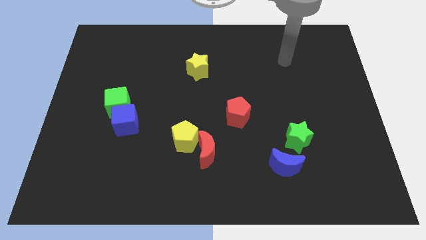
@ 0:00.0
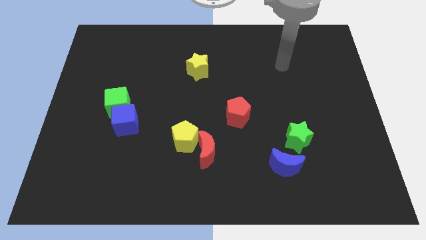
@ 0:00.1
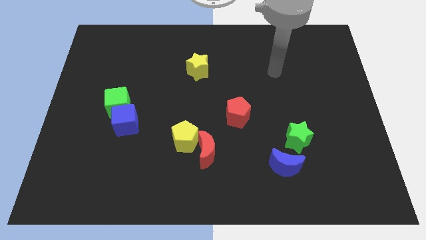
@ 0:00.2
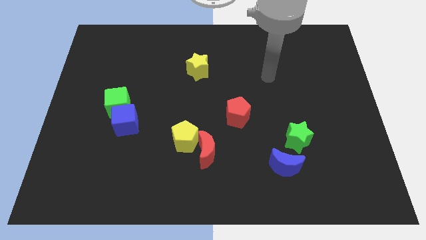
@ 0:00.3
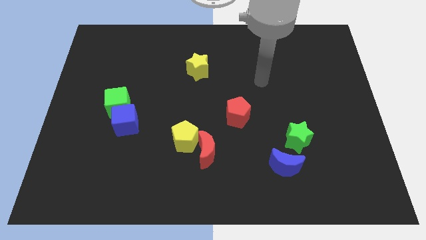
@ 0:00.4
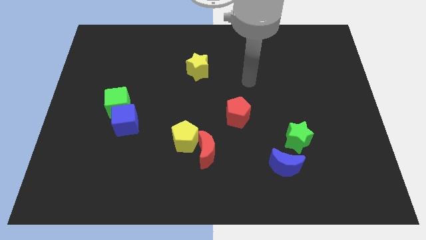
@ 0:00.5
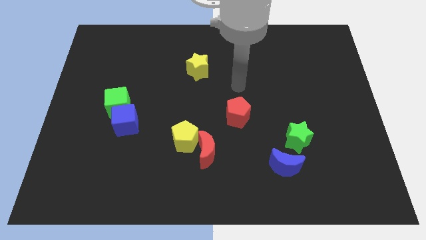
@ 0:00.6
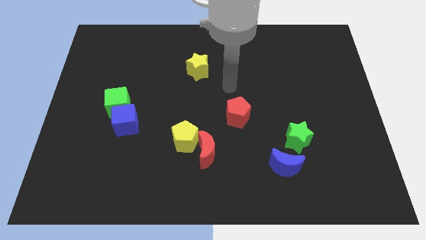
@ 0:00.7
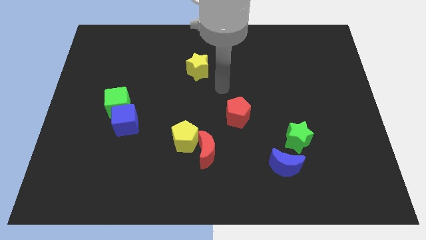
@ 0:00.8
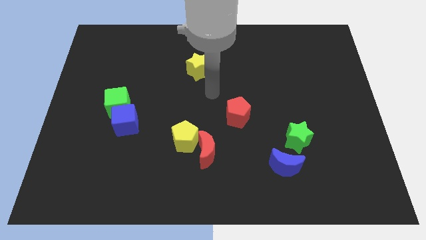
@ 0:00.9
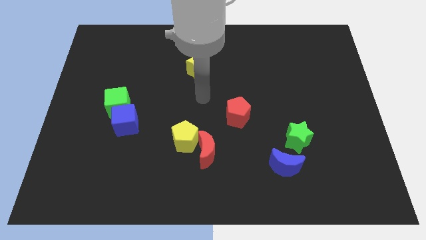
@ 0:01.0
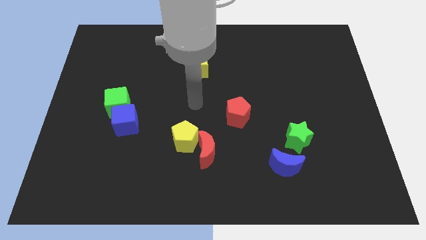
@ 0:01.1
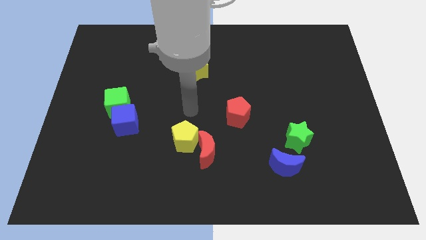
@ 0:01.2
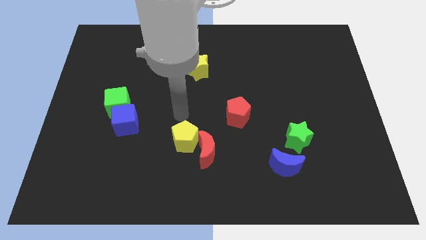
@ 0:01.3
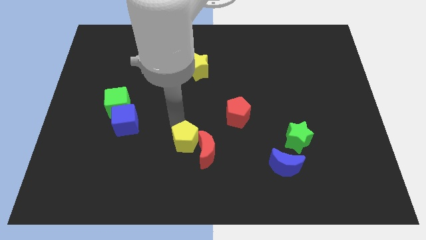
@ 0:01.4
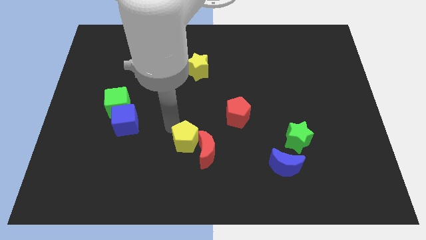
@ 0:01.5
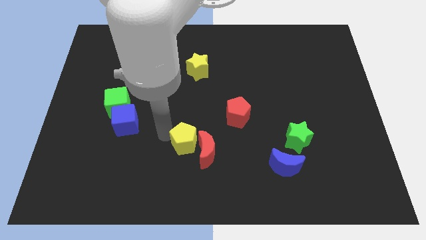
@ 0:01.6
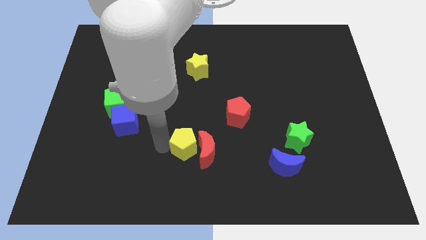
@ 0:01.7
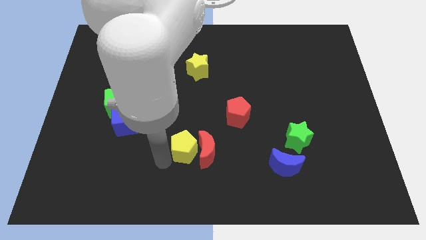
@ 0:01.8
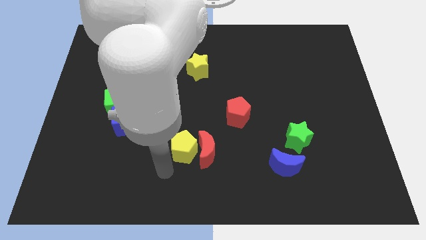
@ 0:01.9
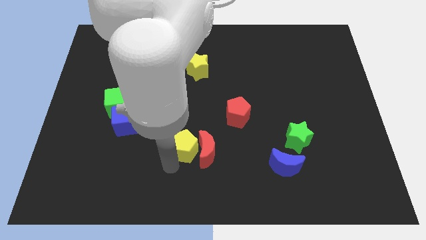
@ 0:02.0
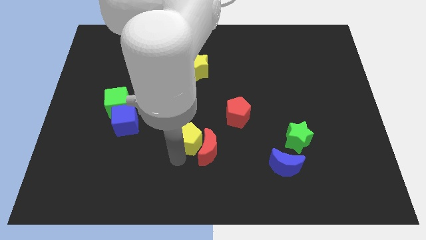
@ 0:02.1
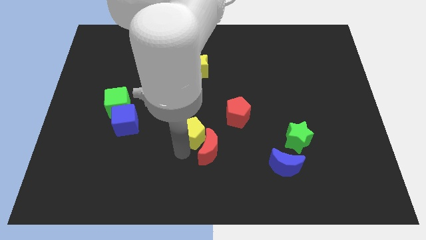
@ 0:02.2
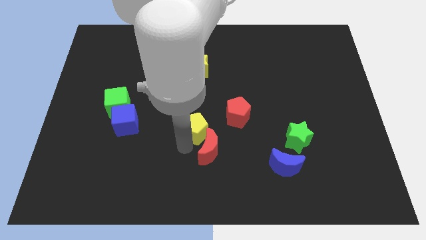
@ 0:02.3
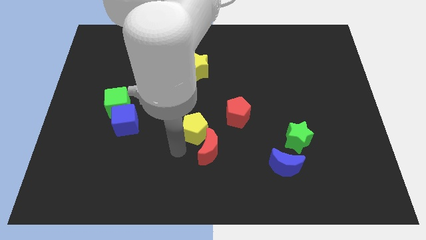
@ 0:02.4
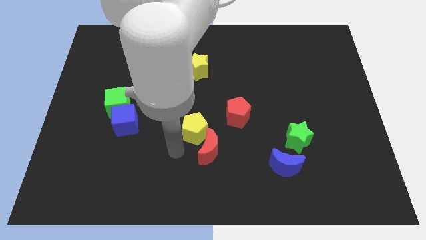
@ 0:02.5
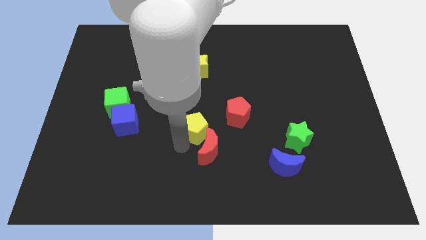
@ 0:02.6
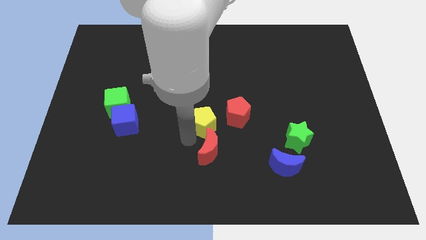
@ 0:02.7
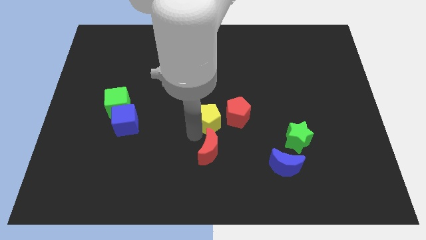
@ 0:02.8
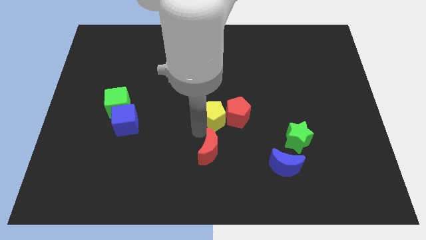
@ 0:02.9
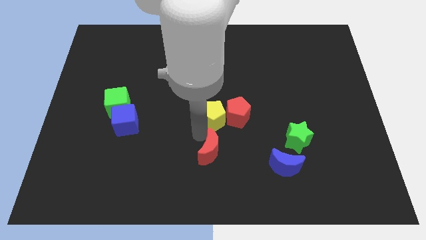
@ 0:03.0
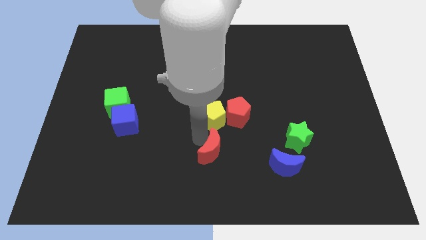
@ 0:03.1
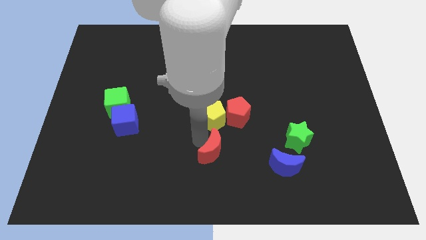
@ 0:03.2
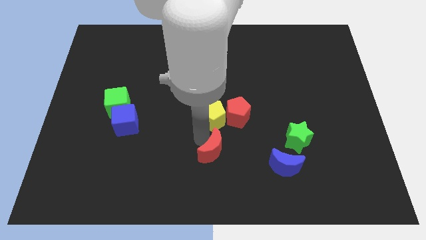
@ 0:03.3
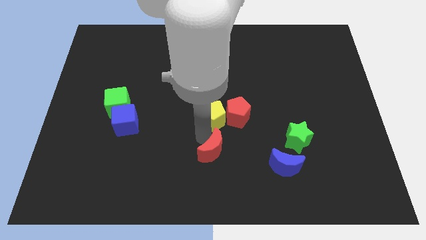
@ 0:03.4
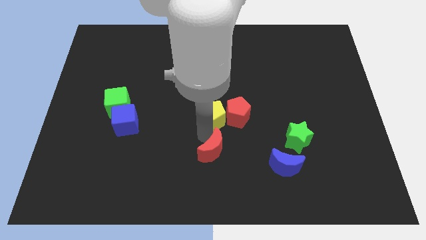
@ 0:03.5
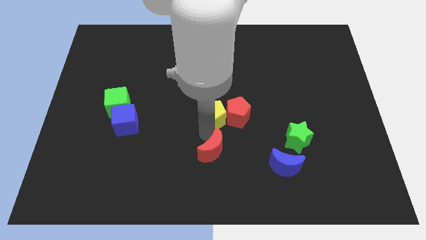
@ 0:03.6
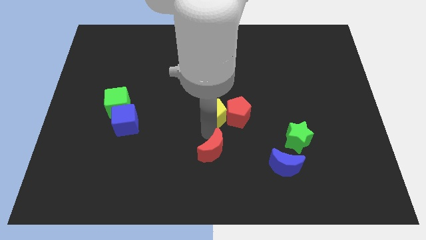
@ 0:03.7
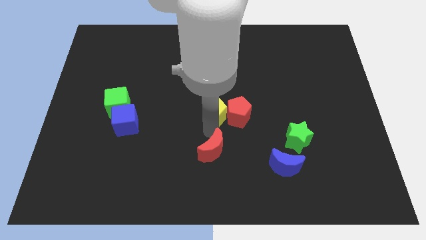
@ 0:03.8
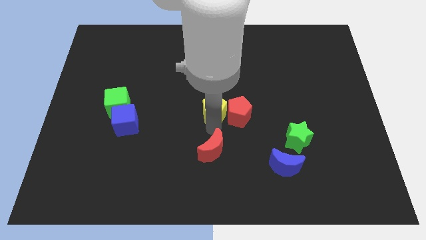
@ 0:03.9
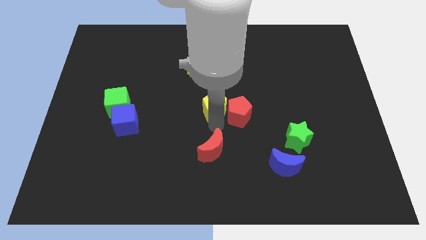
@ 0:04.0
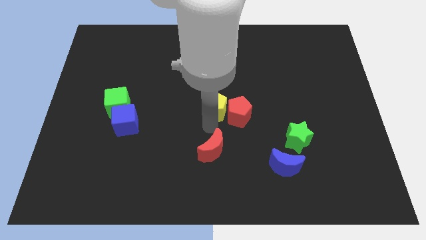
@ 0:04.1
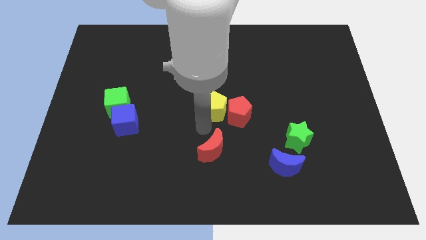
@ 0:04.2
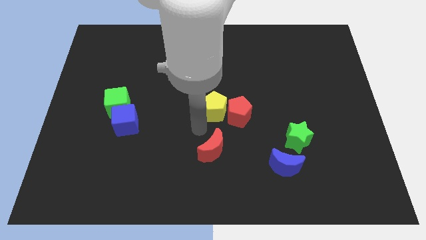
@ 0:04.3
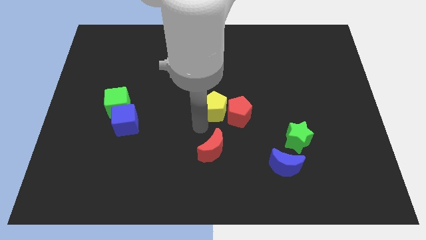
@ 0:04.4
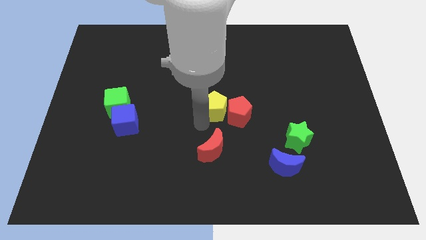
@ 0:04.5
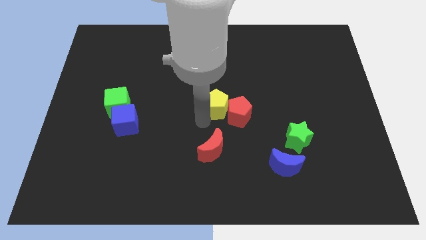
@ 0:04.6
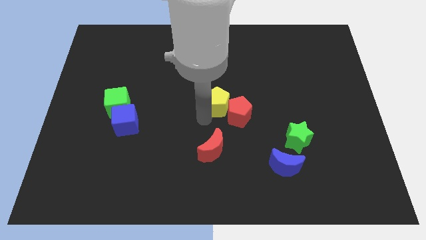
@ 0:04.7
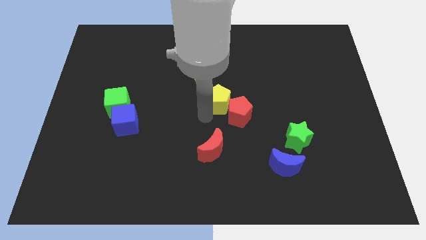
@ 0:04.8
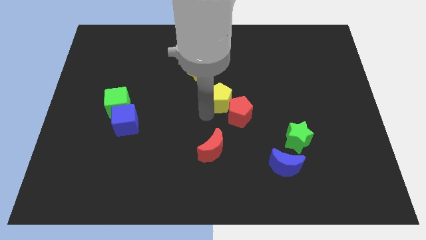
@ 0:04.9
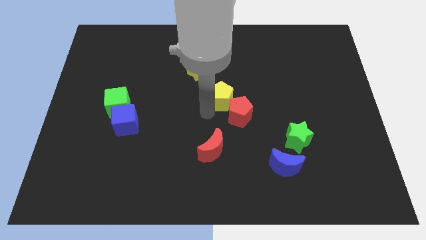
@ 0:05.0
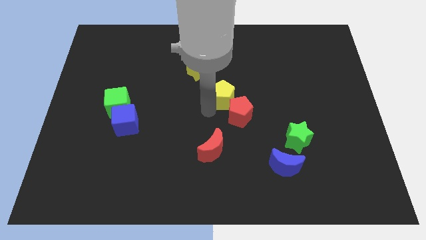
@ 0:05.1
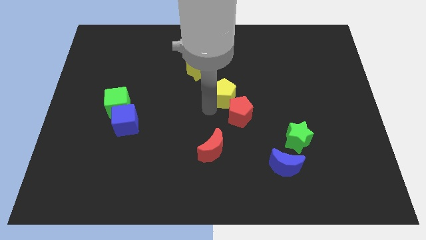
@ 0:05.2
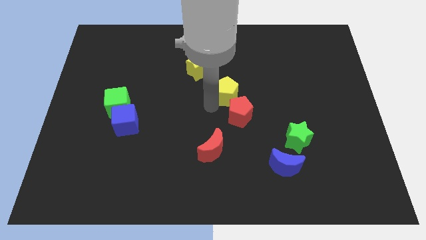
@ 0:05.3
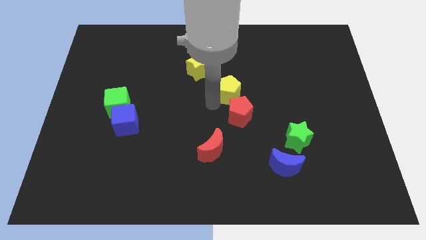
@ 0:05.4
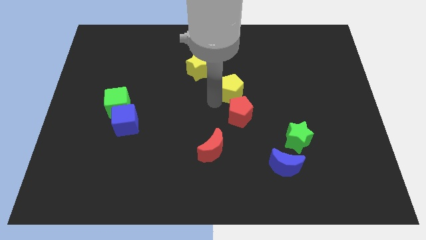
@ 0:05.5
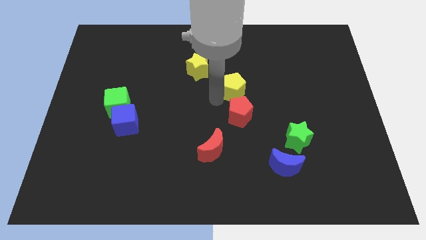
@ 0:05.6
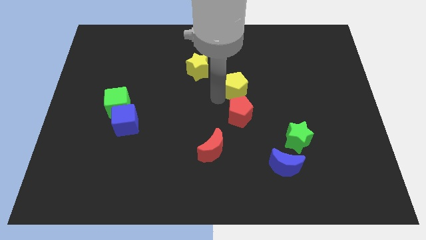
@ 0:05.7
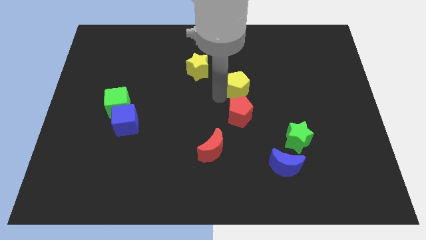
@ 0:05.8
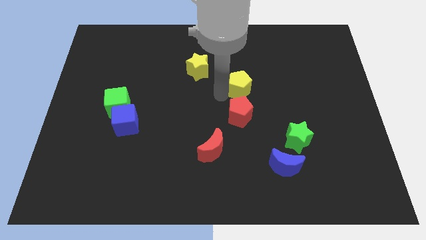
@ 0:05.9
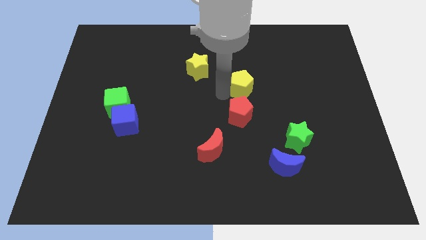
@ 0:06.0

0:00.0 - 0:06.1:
move the yellow pentagon upwards and then to the right

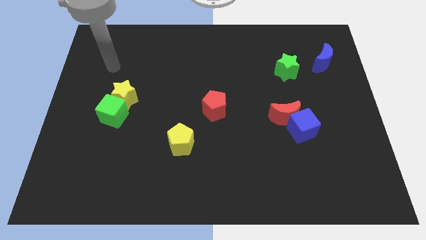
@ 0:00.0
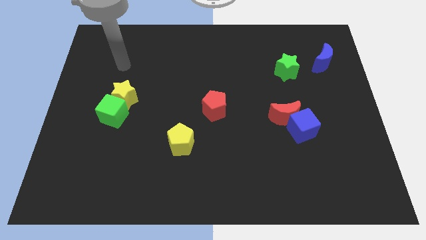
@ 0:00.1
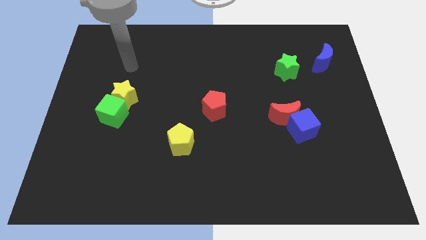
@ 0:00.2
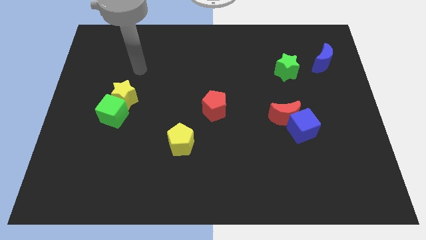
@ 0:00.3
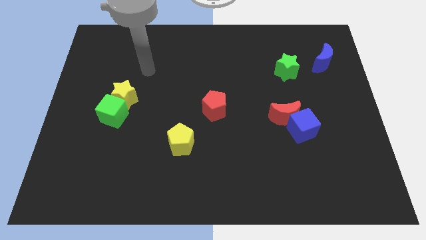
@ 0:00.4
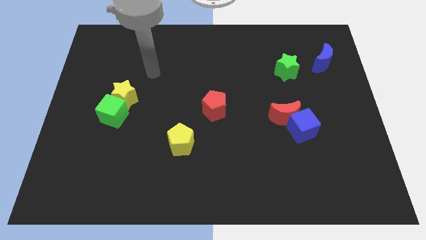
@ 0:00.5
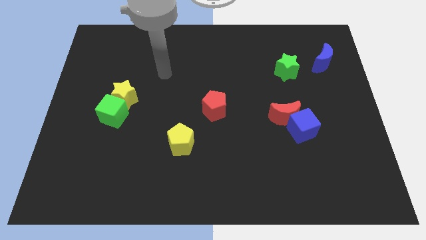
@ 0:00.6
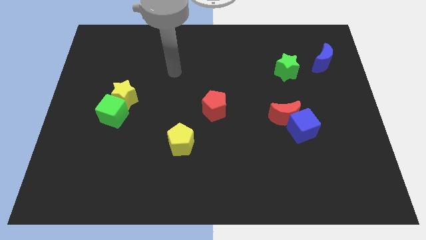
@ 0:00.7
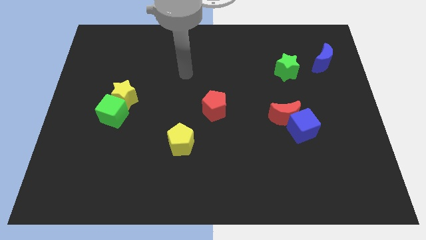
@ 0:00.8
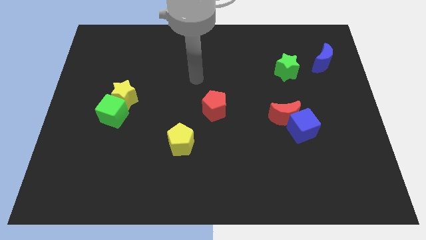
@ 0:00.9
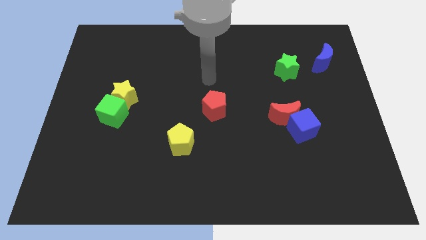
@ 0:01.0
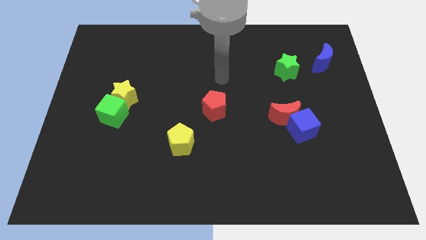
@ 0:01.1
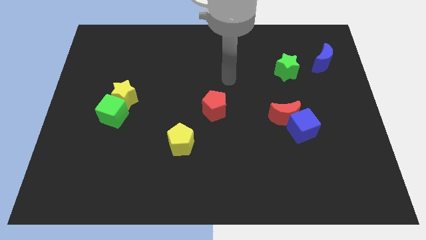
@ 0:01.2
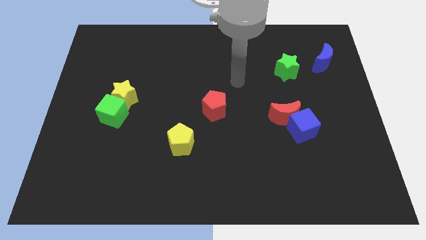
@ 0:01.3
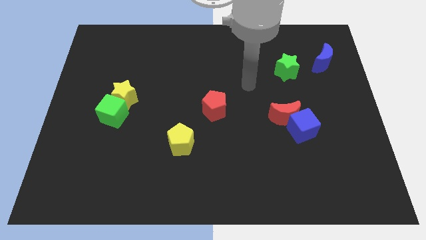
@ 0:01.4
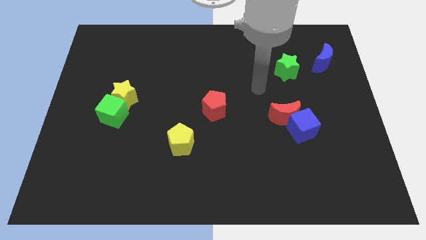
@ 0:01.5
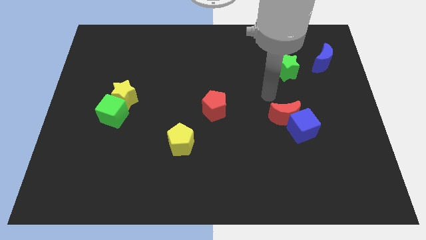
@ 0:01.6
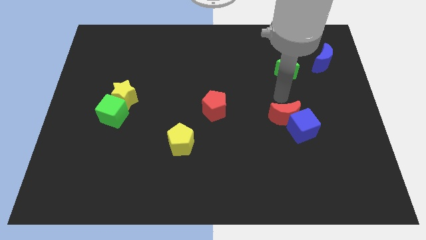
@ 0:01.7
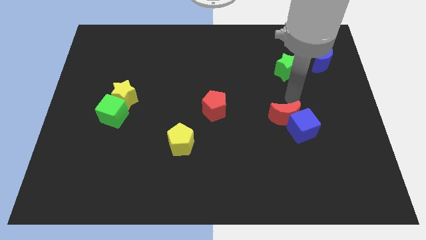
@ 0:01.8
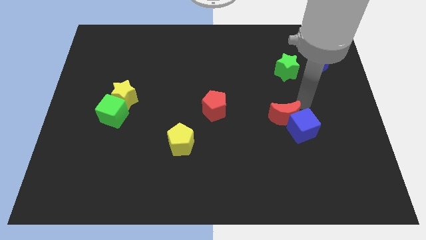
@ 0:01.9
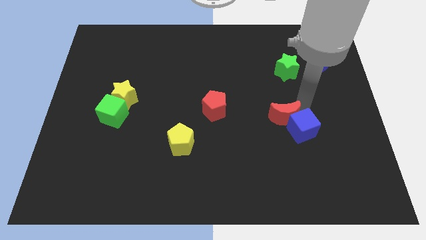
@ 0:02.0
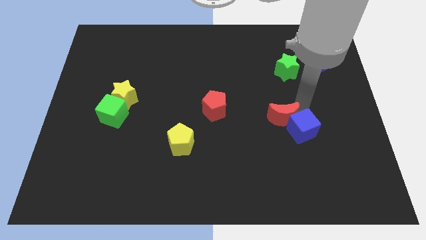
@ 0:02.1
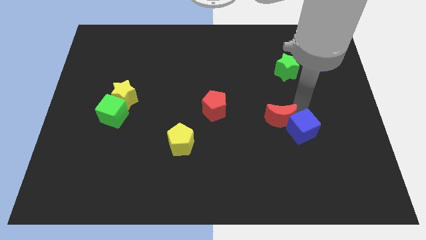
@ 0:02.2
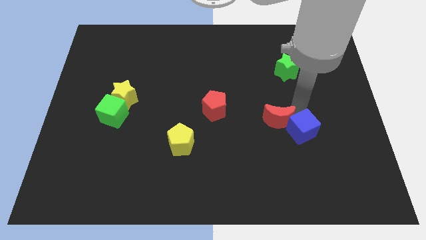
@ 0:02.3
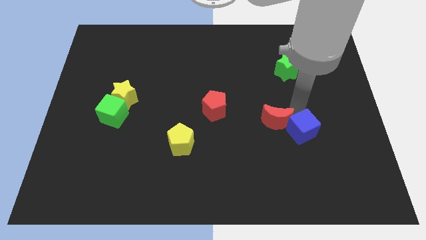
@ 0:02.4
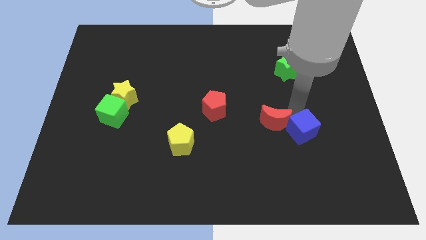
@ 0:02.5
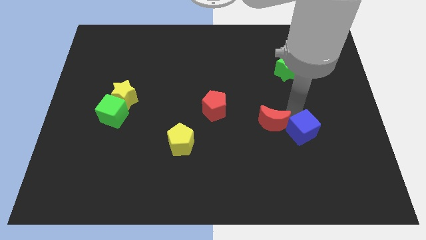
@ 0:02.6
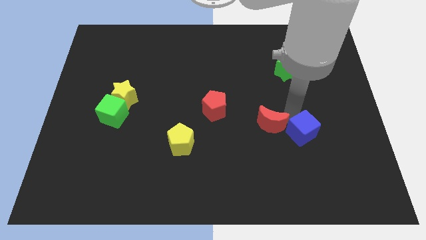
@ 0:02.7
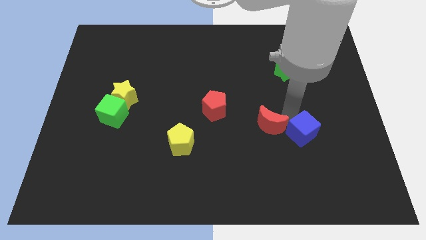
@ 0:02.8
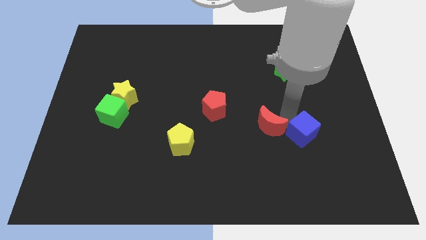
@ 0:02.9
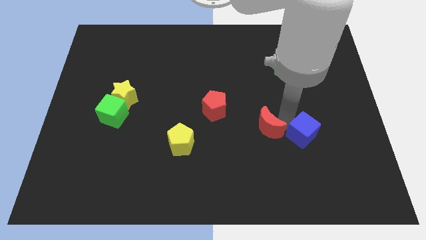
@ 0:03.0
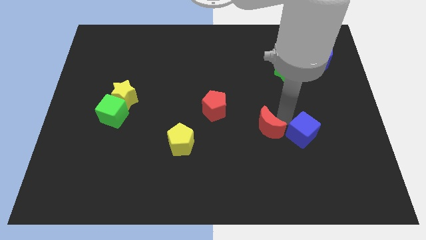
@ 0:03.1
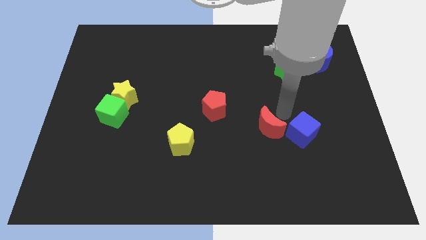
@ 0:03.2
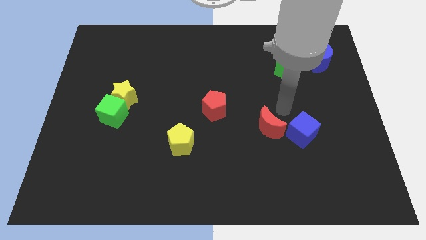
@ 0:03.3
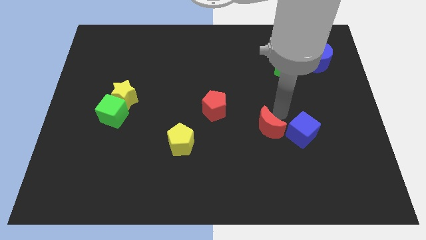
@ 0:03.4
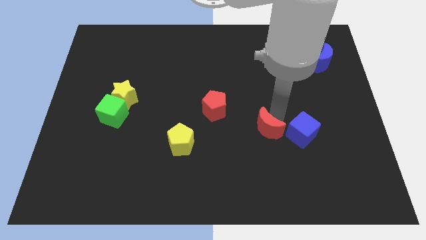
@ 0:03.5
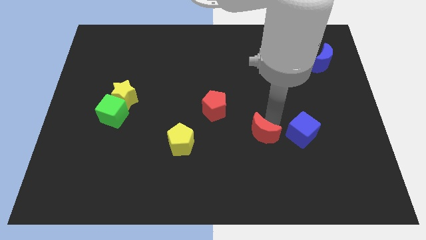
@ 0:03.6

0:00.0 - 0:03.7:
slightly push the red moon downwards and left diagonally
